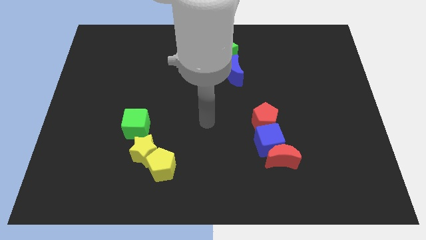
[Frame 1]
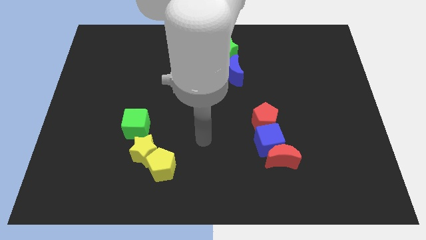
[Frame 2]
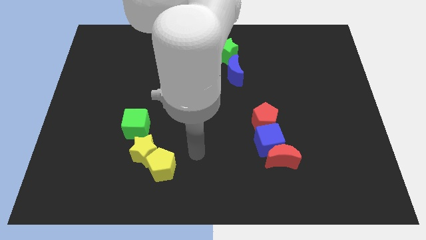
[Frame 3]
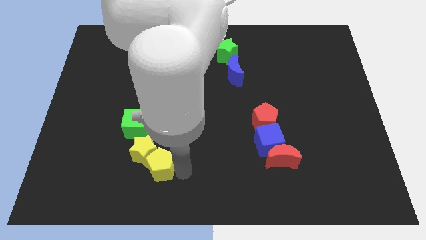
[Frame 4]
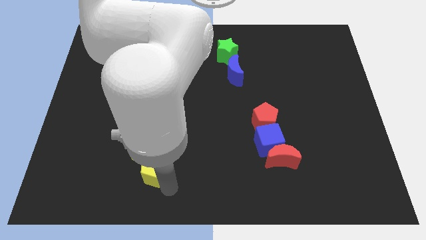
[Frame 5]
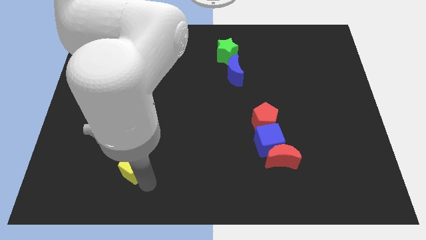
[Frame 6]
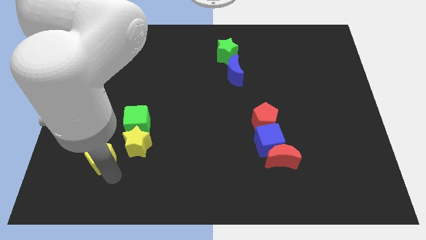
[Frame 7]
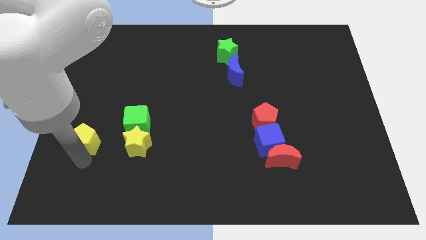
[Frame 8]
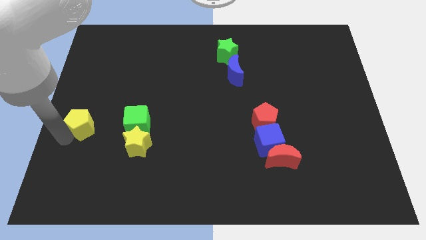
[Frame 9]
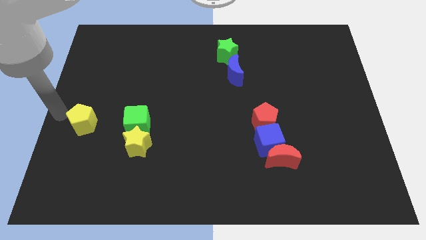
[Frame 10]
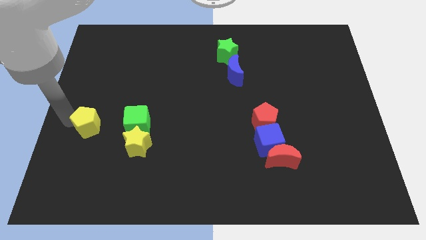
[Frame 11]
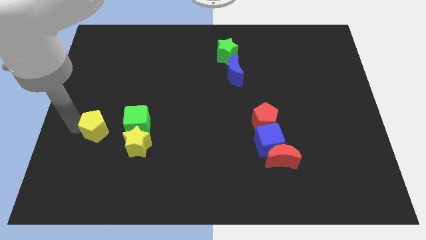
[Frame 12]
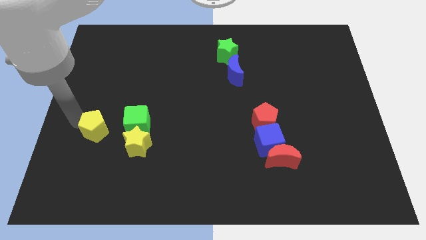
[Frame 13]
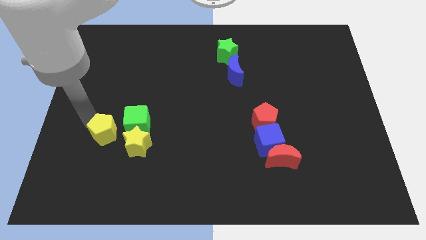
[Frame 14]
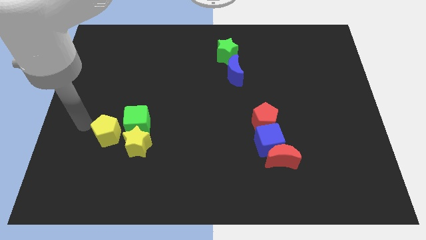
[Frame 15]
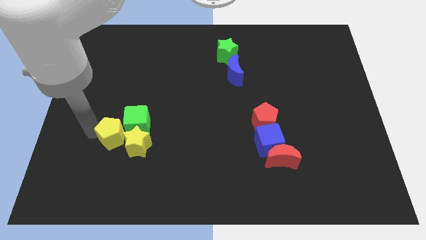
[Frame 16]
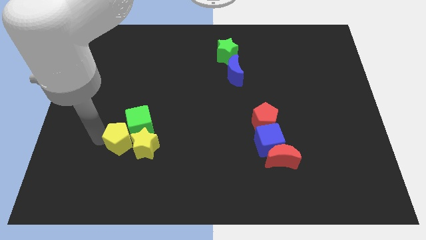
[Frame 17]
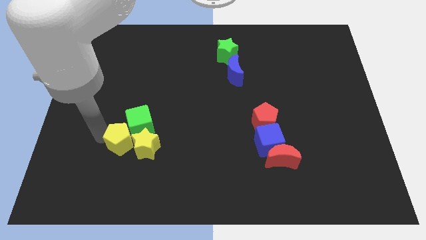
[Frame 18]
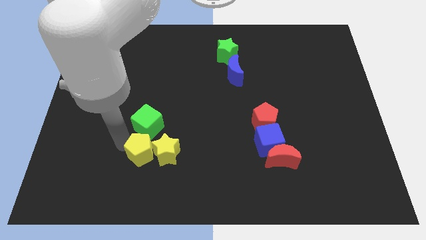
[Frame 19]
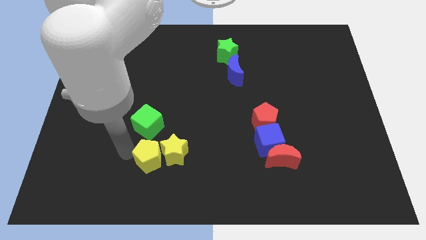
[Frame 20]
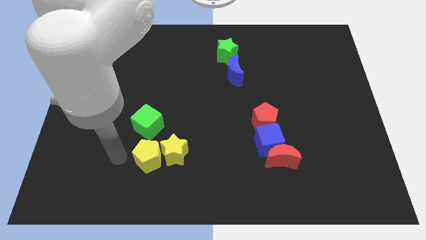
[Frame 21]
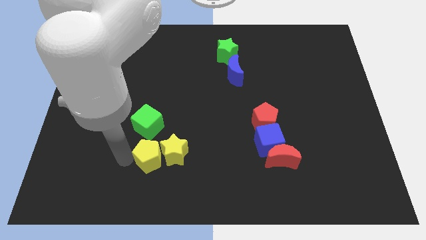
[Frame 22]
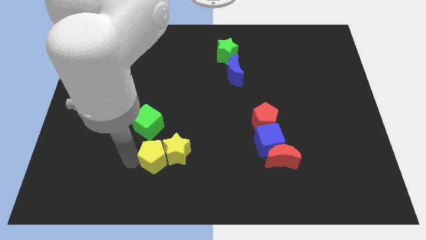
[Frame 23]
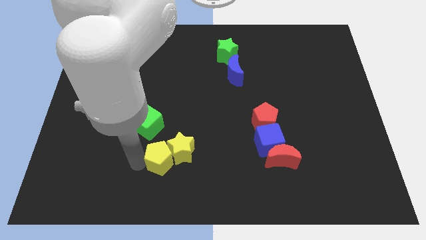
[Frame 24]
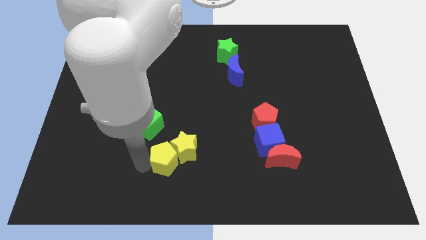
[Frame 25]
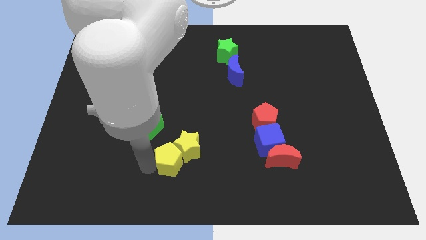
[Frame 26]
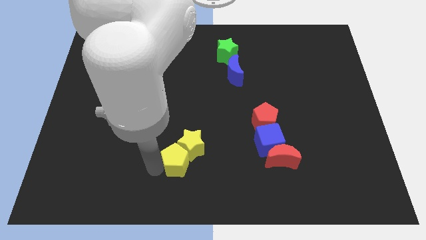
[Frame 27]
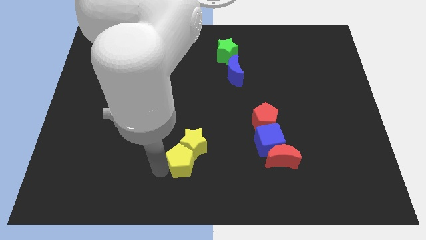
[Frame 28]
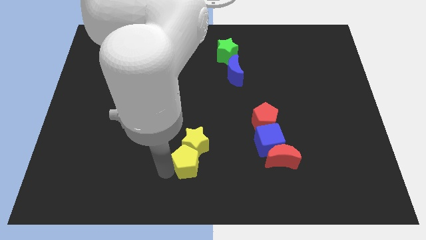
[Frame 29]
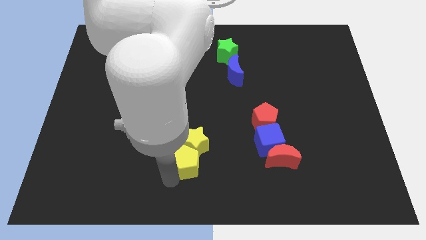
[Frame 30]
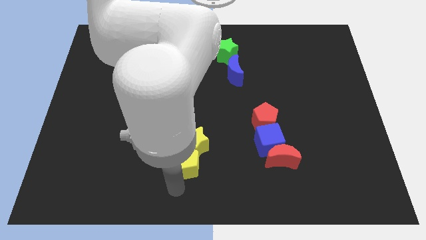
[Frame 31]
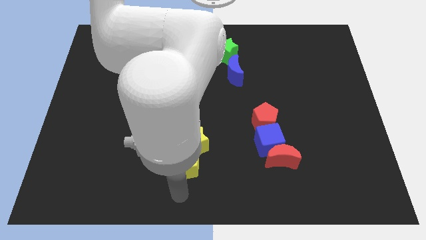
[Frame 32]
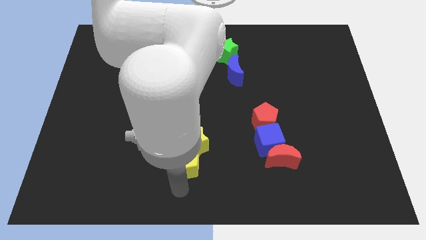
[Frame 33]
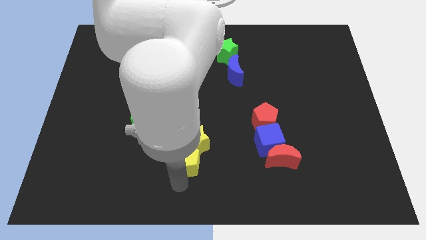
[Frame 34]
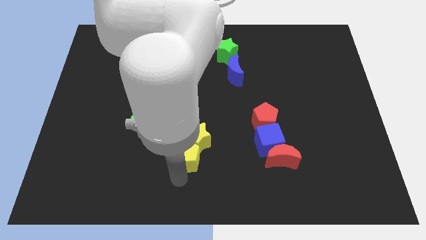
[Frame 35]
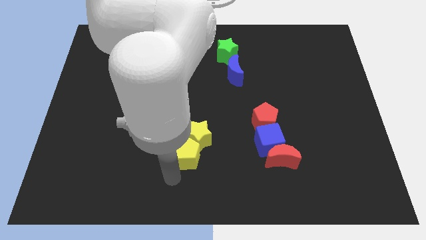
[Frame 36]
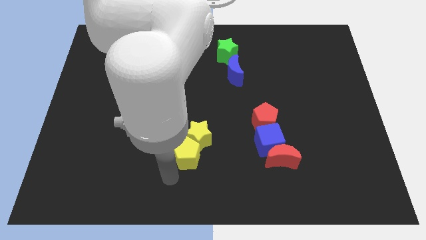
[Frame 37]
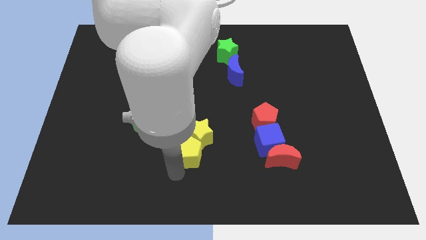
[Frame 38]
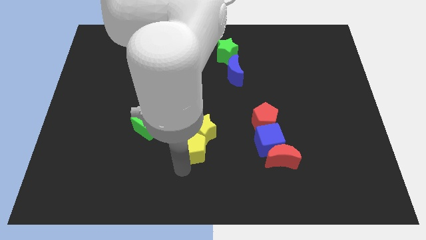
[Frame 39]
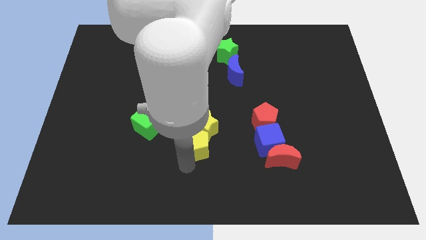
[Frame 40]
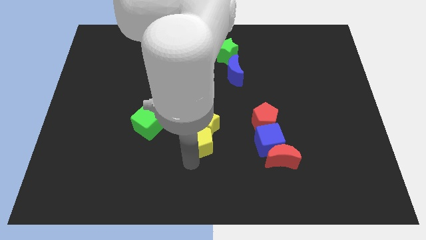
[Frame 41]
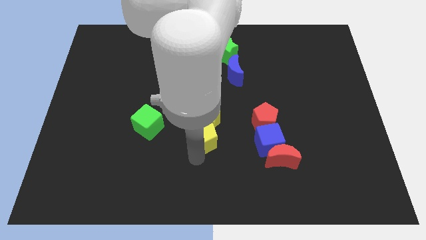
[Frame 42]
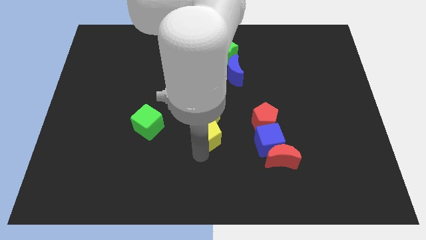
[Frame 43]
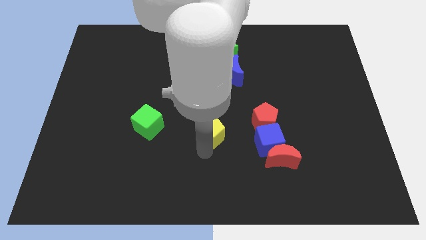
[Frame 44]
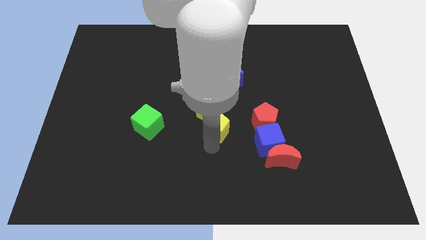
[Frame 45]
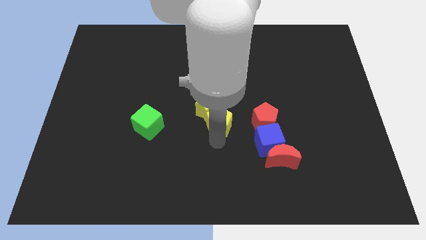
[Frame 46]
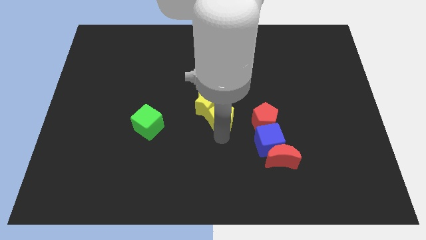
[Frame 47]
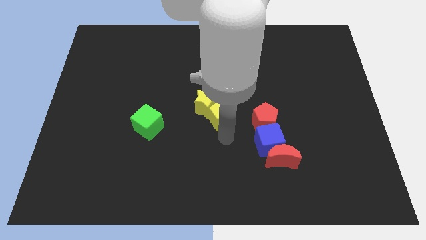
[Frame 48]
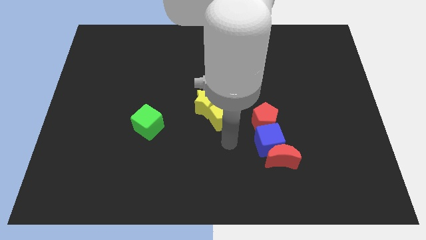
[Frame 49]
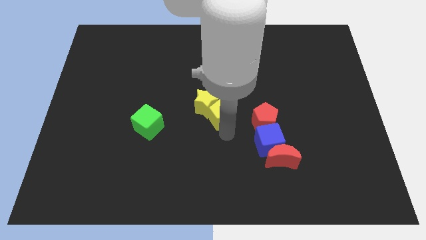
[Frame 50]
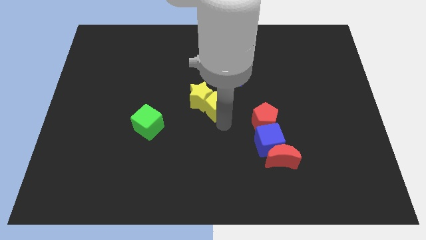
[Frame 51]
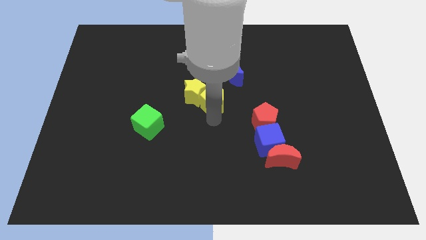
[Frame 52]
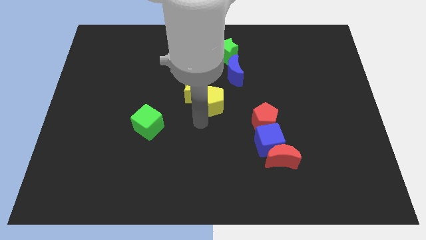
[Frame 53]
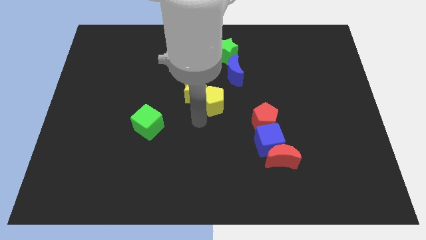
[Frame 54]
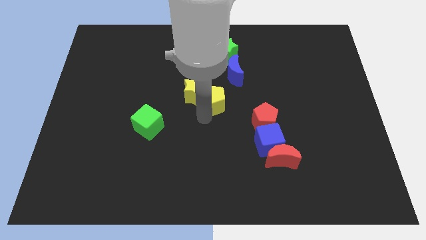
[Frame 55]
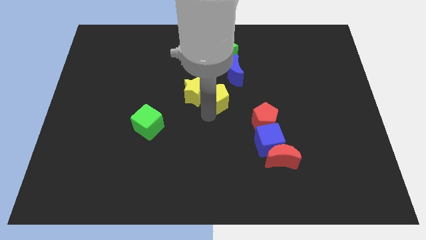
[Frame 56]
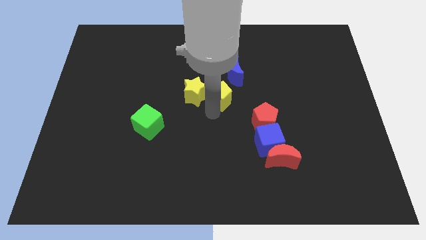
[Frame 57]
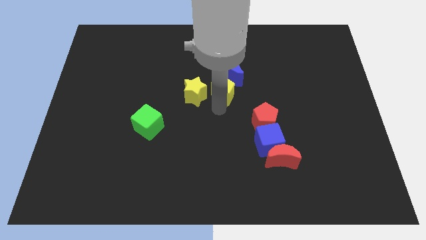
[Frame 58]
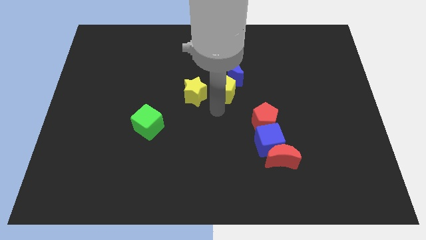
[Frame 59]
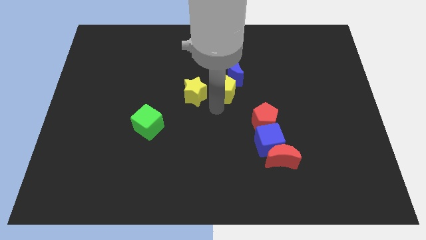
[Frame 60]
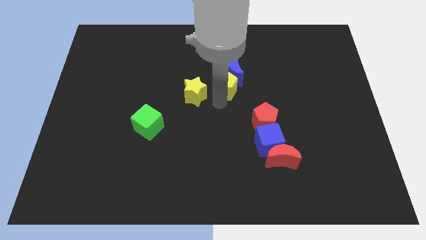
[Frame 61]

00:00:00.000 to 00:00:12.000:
put the yellow pentagon to the blue moon

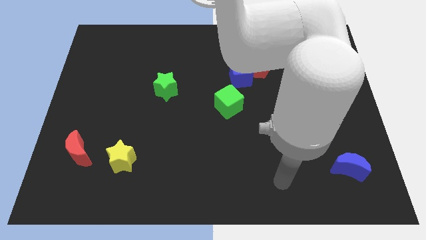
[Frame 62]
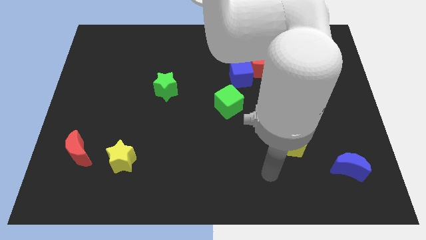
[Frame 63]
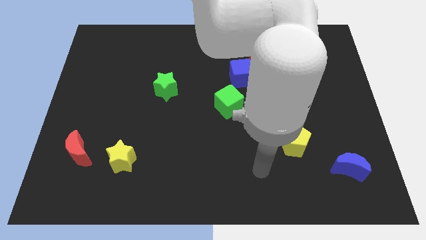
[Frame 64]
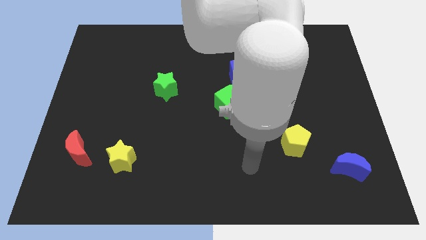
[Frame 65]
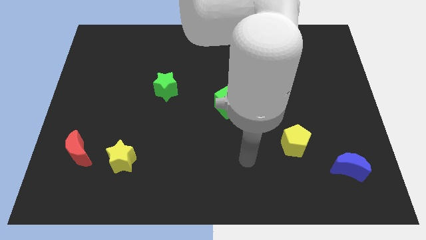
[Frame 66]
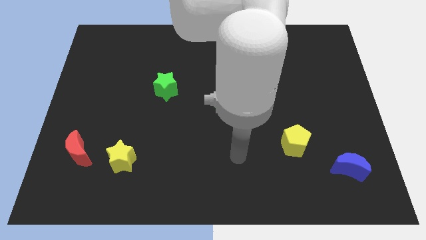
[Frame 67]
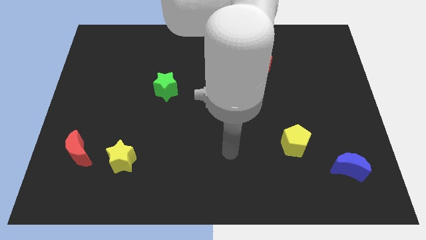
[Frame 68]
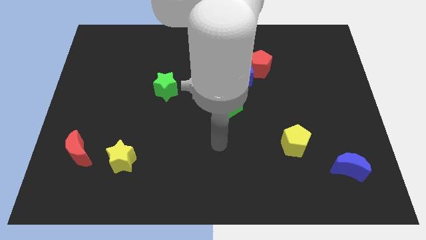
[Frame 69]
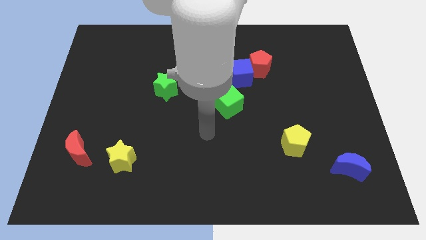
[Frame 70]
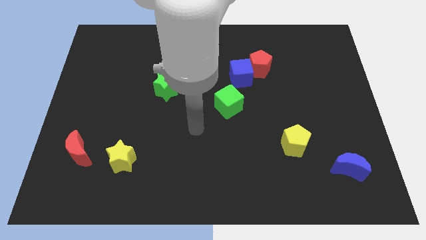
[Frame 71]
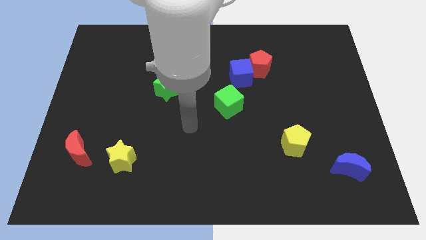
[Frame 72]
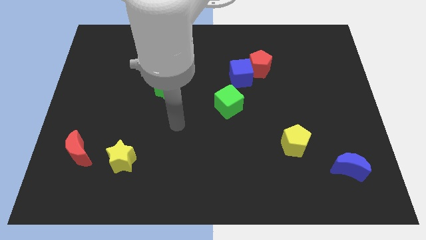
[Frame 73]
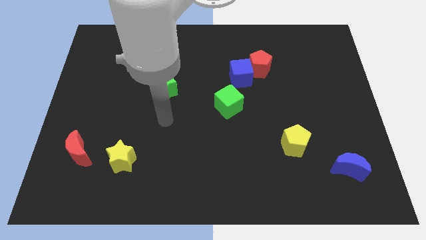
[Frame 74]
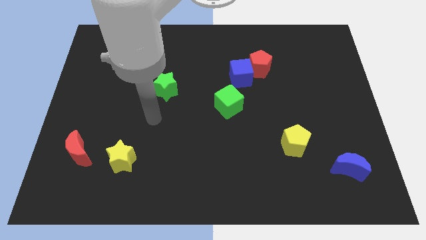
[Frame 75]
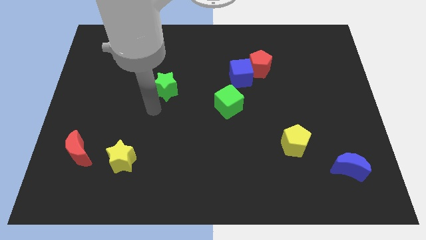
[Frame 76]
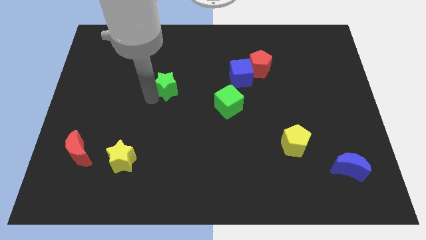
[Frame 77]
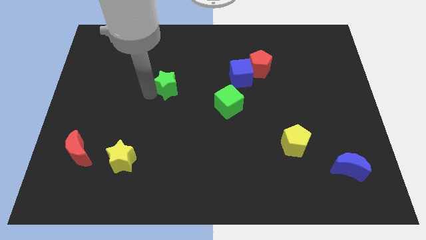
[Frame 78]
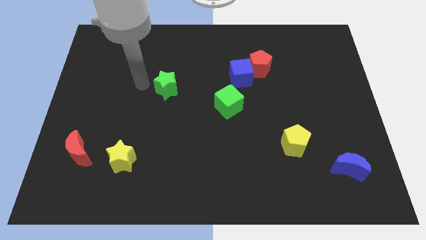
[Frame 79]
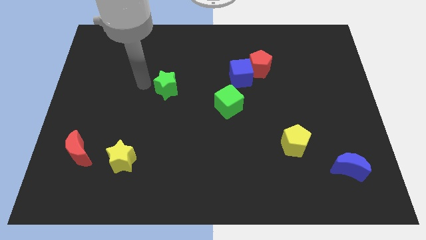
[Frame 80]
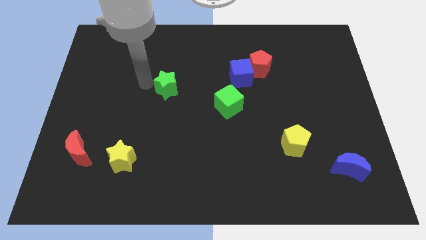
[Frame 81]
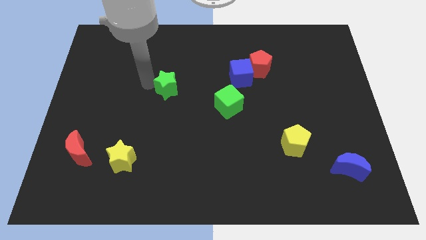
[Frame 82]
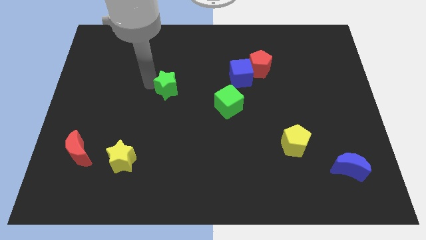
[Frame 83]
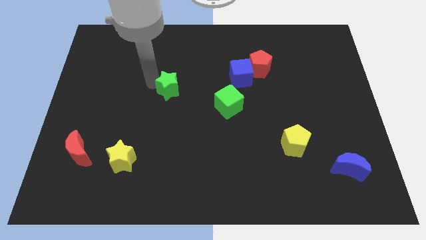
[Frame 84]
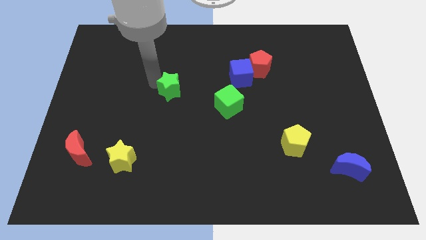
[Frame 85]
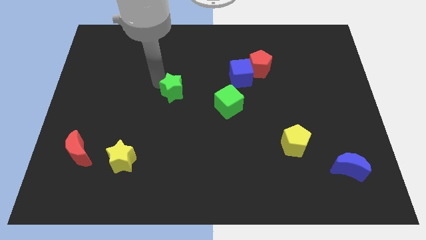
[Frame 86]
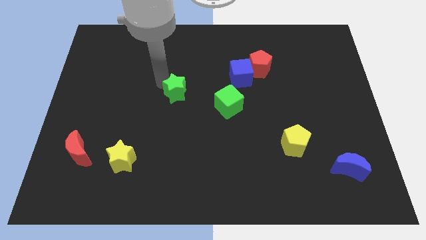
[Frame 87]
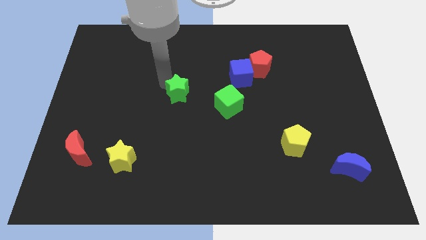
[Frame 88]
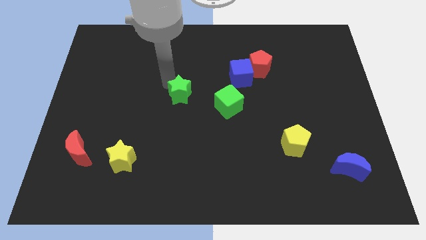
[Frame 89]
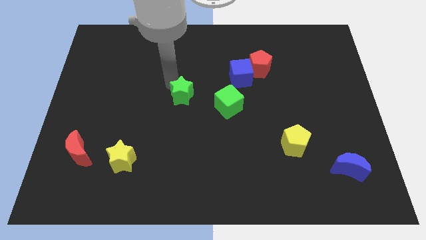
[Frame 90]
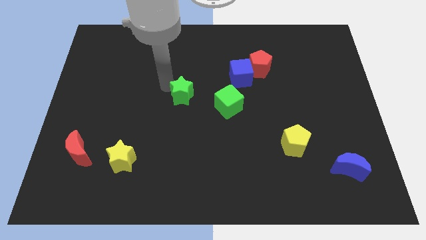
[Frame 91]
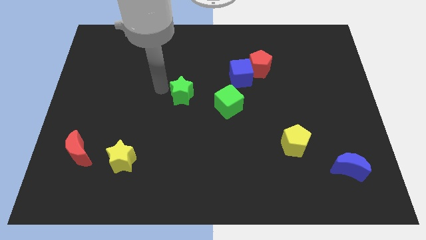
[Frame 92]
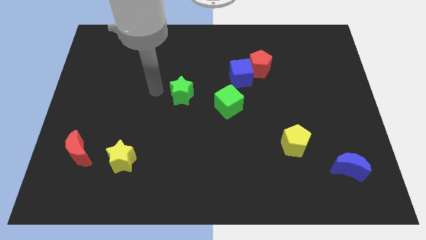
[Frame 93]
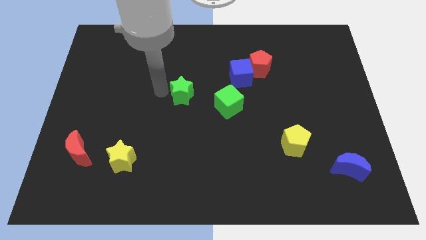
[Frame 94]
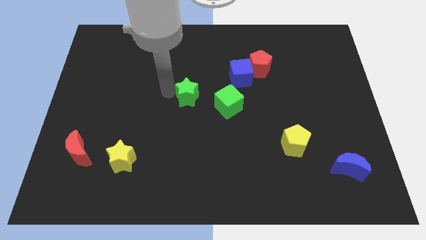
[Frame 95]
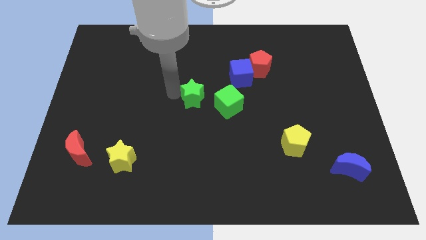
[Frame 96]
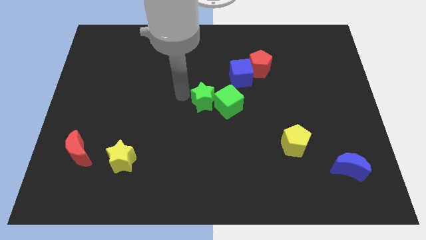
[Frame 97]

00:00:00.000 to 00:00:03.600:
put the green star to the green cube
